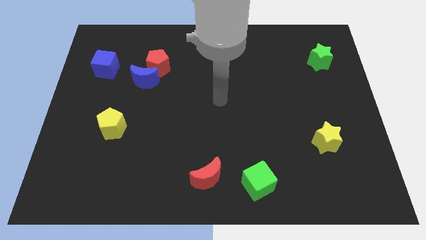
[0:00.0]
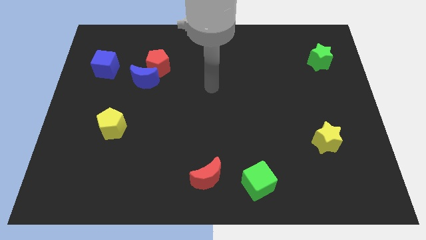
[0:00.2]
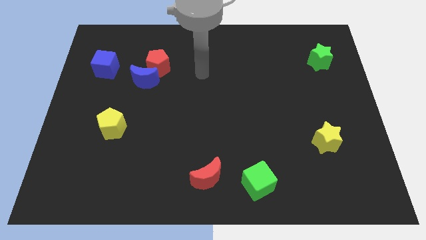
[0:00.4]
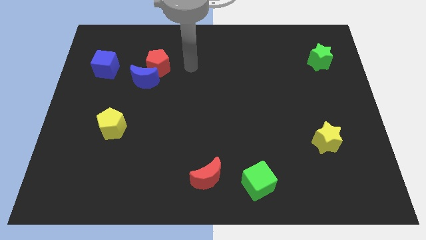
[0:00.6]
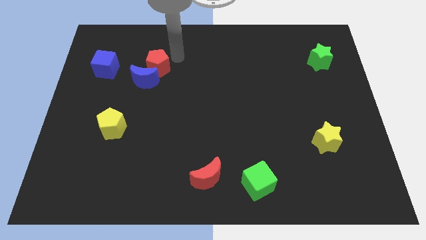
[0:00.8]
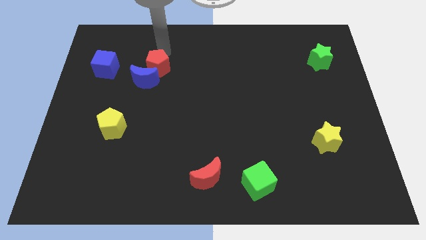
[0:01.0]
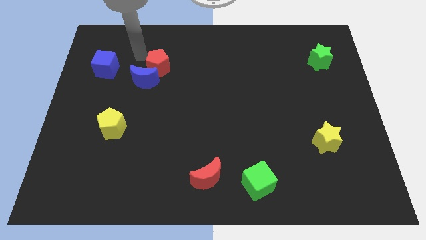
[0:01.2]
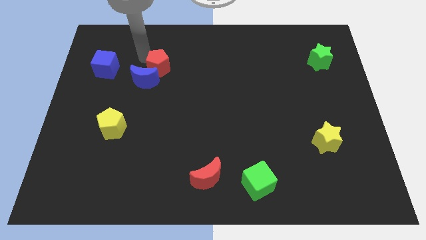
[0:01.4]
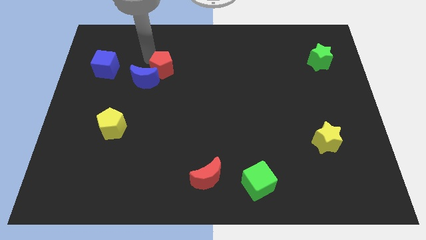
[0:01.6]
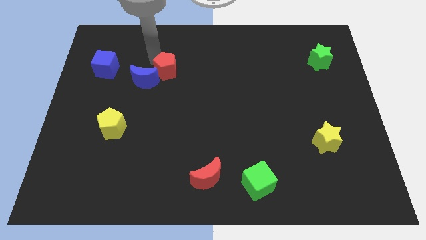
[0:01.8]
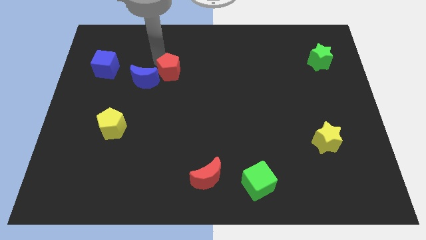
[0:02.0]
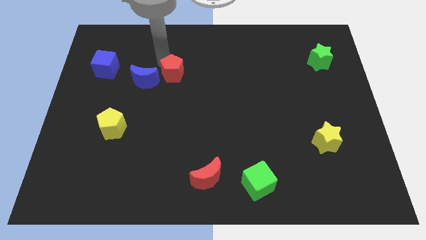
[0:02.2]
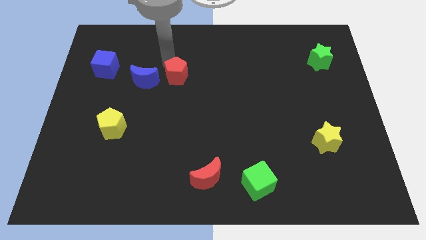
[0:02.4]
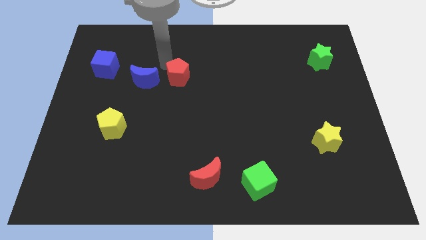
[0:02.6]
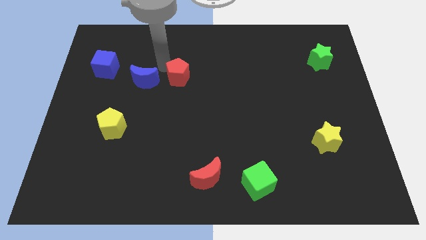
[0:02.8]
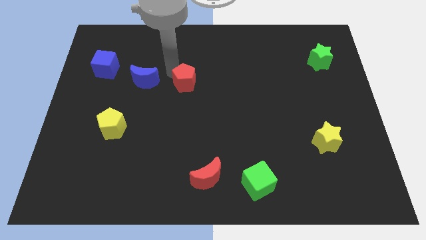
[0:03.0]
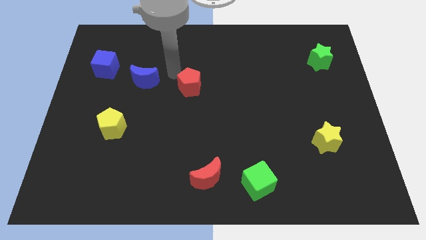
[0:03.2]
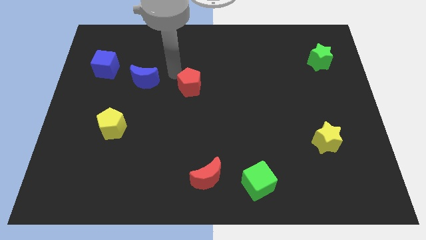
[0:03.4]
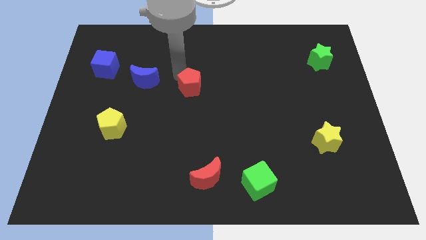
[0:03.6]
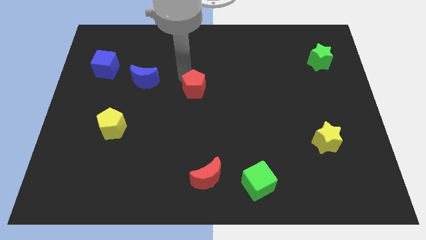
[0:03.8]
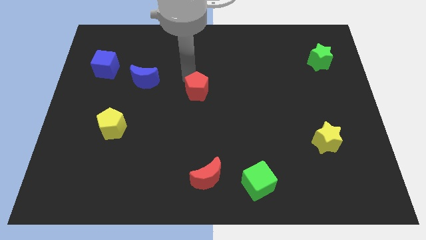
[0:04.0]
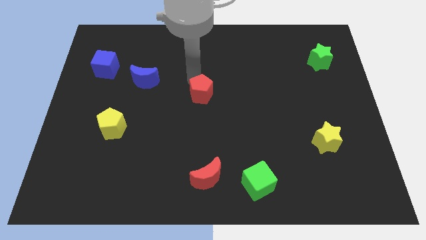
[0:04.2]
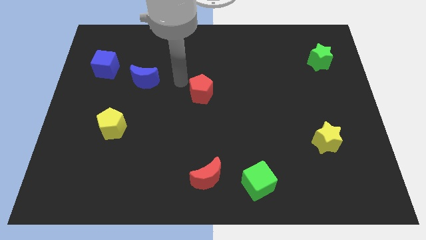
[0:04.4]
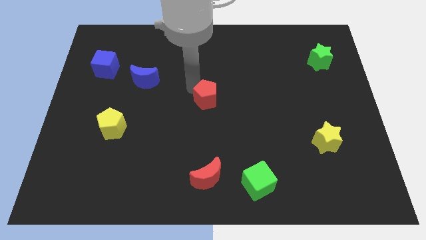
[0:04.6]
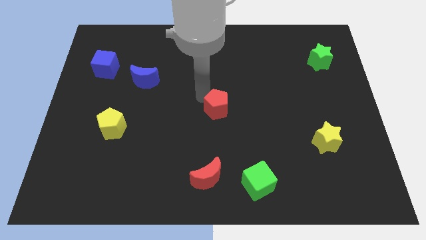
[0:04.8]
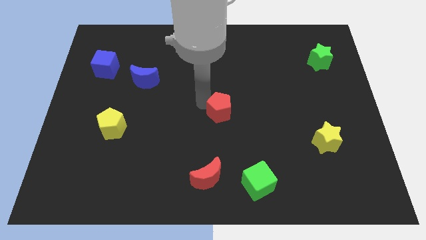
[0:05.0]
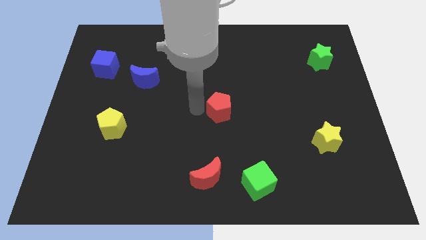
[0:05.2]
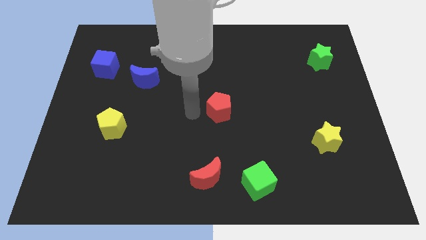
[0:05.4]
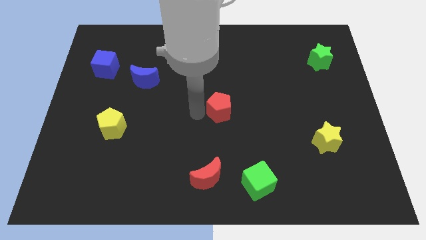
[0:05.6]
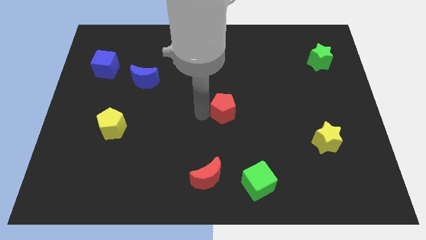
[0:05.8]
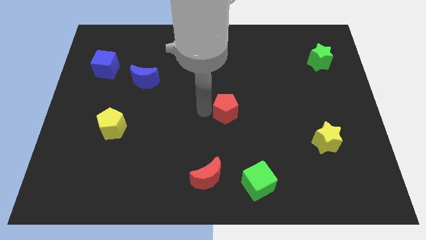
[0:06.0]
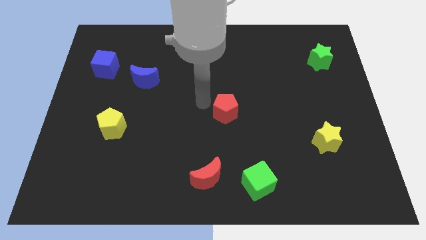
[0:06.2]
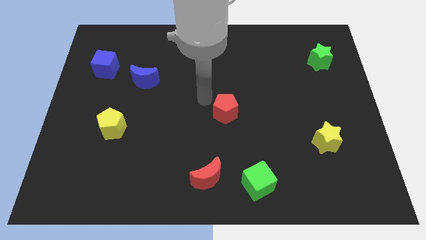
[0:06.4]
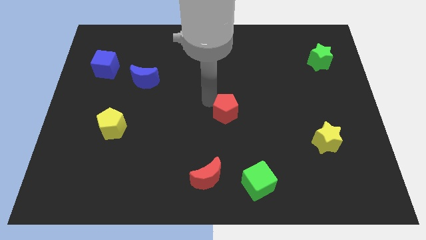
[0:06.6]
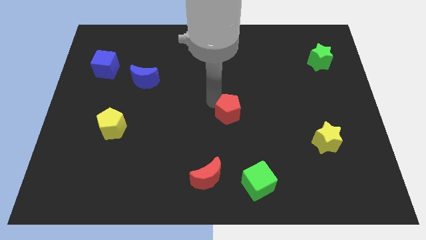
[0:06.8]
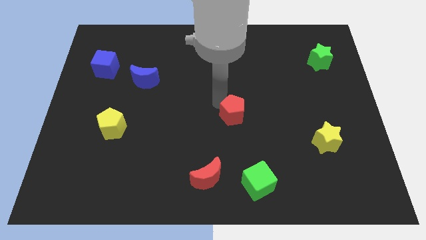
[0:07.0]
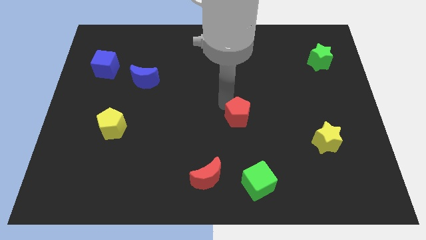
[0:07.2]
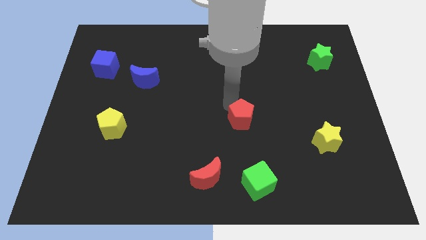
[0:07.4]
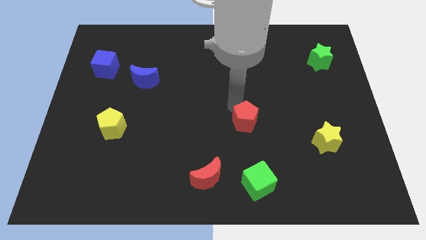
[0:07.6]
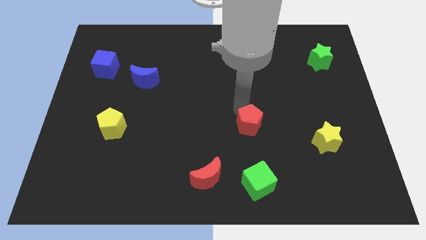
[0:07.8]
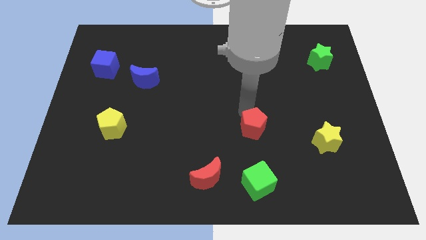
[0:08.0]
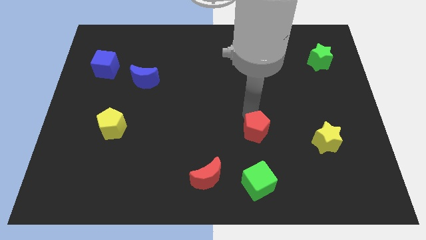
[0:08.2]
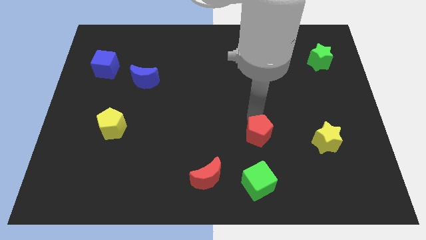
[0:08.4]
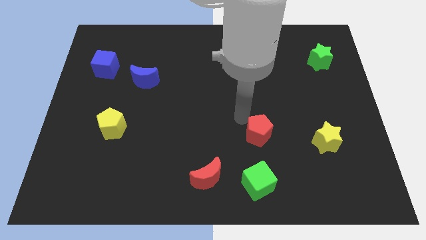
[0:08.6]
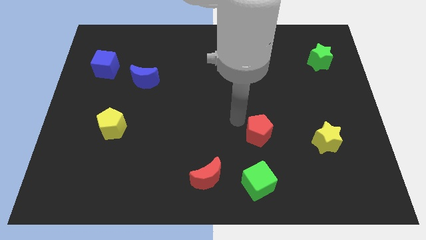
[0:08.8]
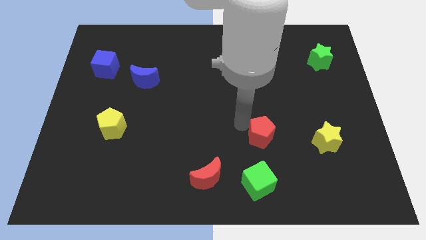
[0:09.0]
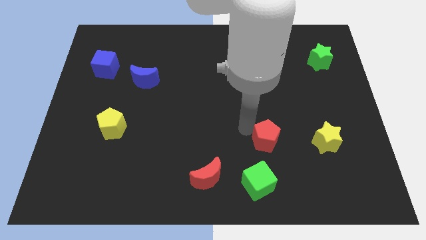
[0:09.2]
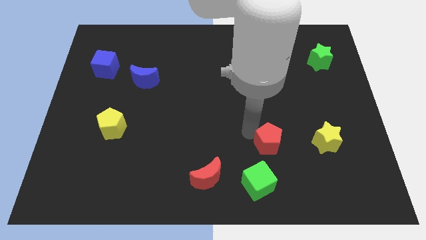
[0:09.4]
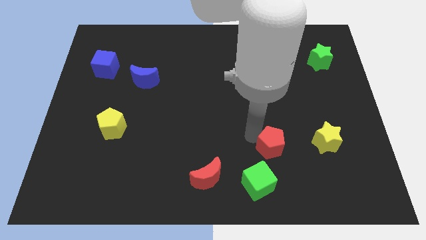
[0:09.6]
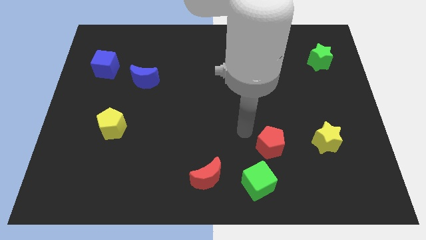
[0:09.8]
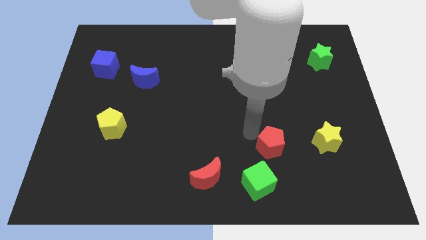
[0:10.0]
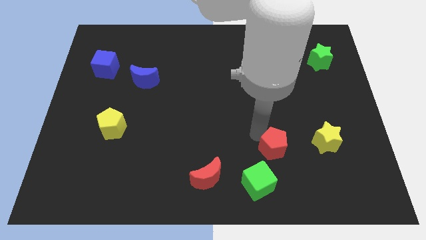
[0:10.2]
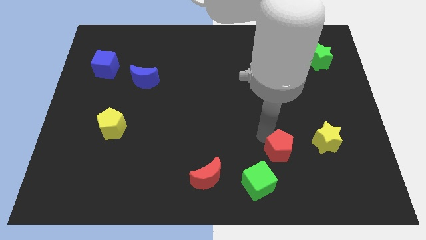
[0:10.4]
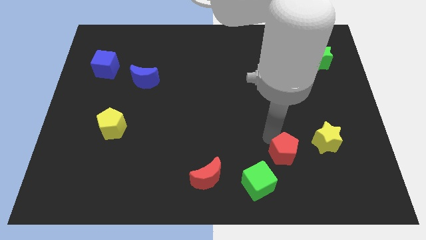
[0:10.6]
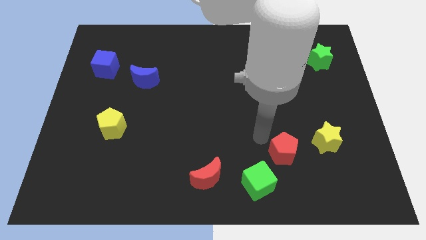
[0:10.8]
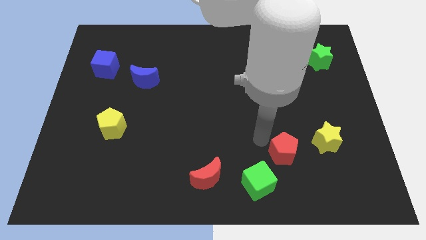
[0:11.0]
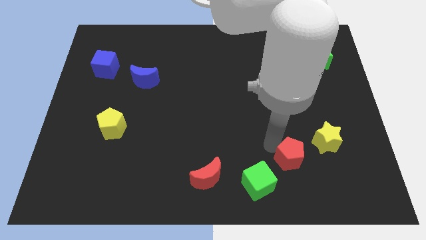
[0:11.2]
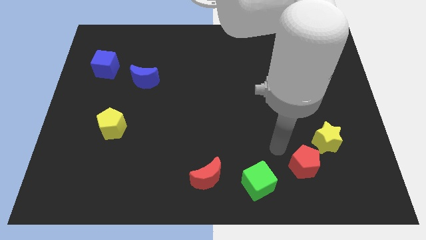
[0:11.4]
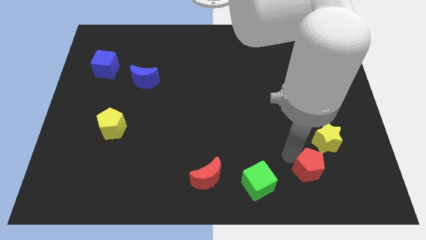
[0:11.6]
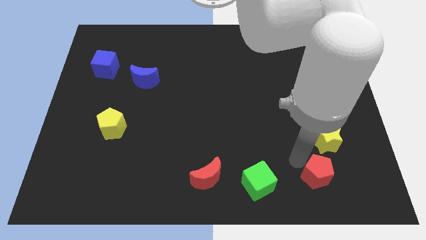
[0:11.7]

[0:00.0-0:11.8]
put the red pentagon to the bottom of the yellow star

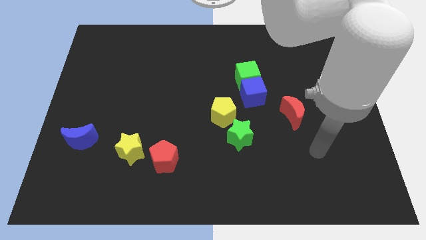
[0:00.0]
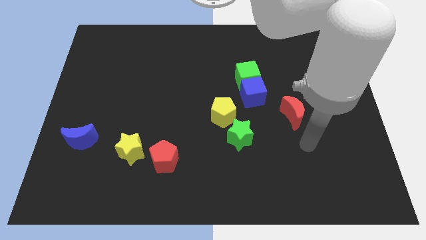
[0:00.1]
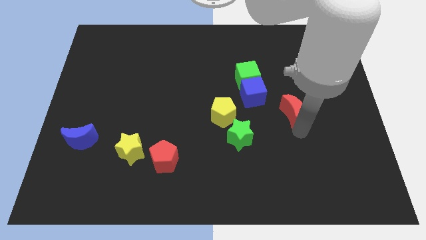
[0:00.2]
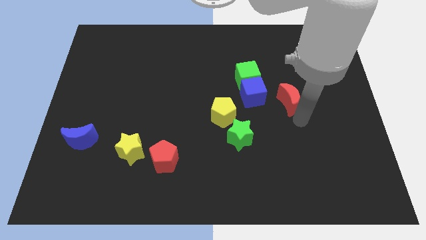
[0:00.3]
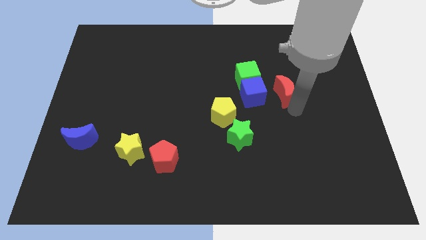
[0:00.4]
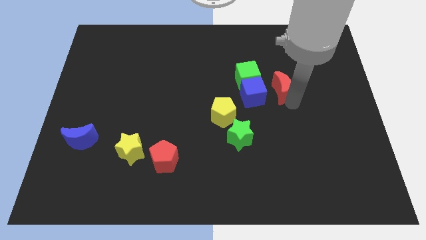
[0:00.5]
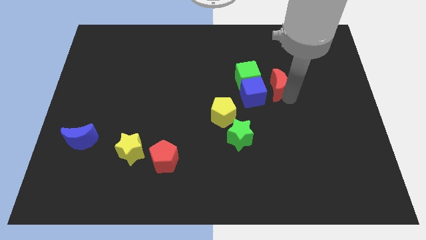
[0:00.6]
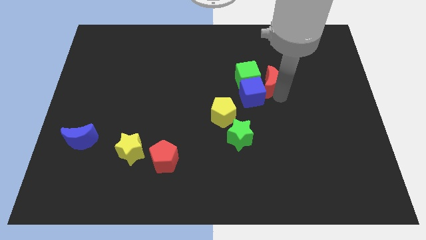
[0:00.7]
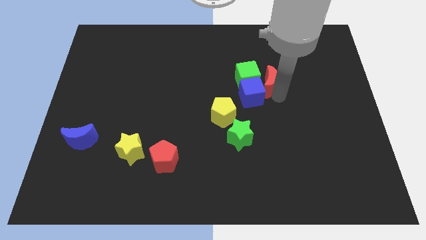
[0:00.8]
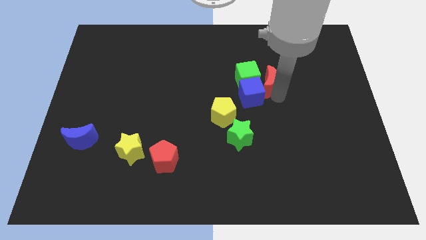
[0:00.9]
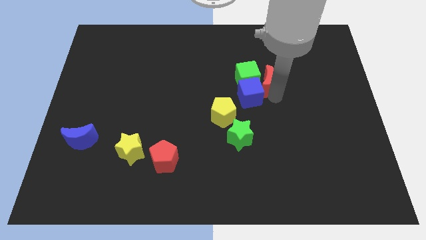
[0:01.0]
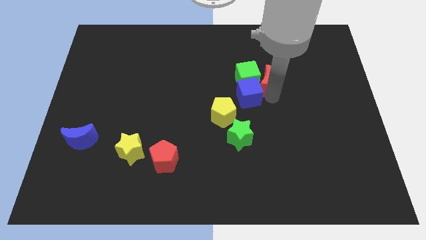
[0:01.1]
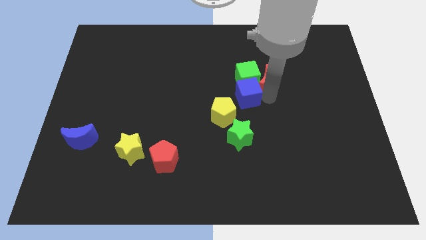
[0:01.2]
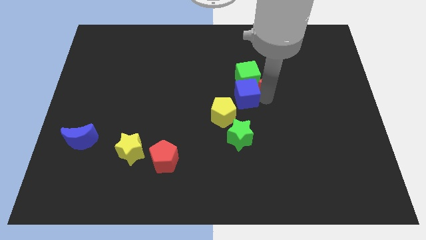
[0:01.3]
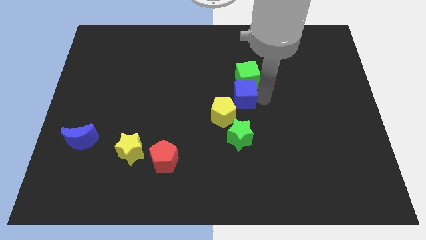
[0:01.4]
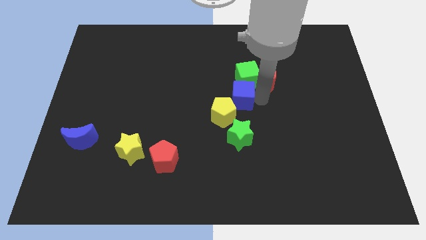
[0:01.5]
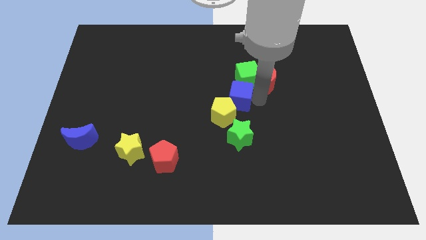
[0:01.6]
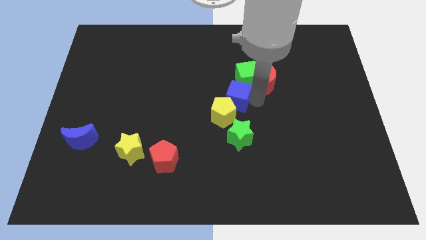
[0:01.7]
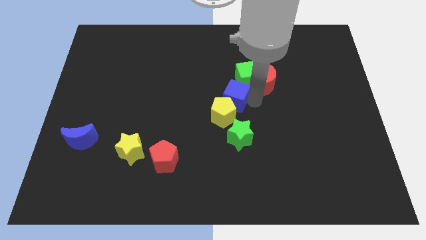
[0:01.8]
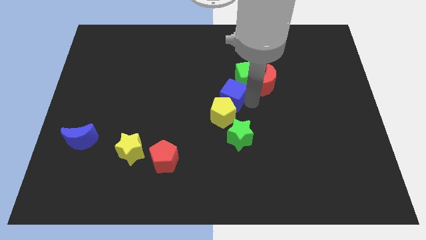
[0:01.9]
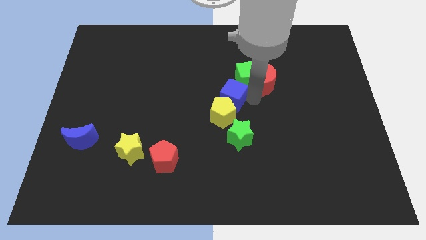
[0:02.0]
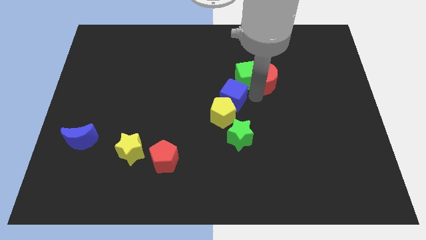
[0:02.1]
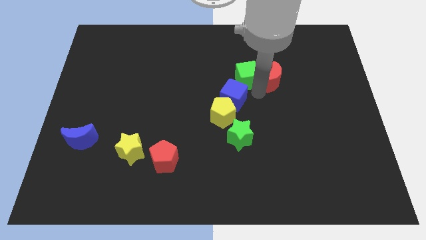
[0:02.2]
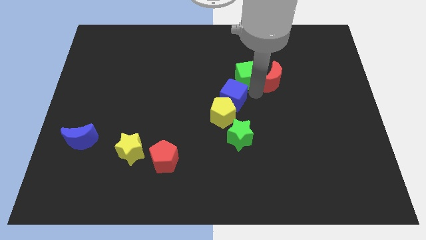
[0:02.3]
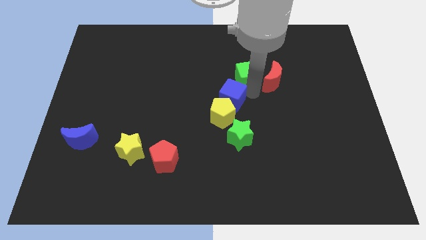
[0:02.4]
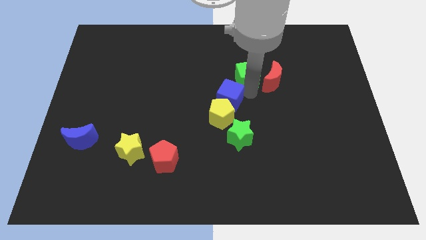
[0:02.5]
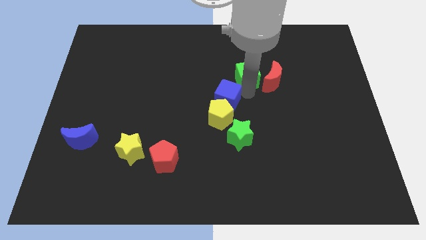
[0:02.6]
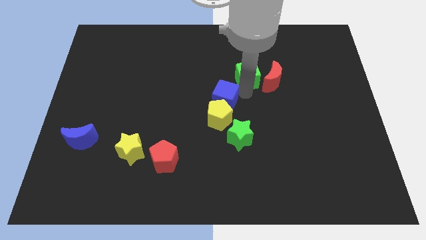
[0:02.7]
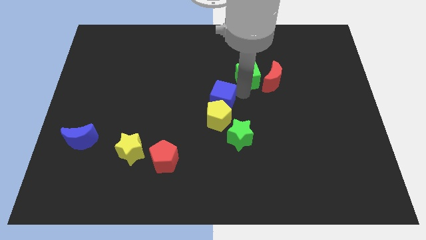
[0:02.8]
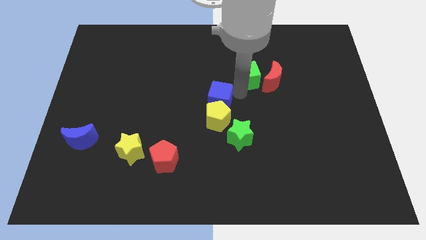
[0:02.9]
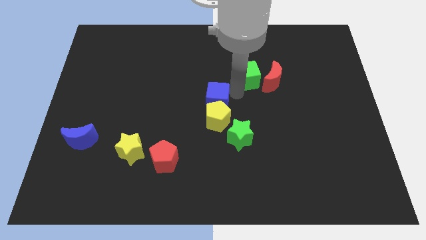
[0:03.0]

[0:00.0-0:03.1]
push the blue cube diagonally up and to the left of the green star
